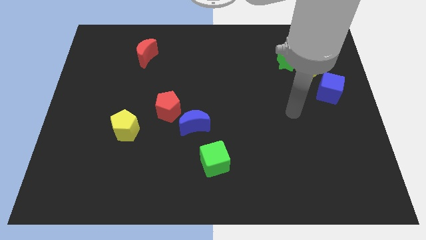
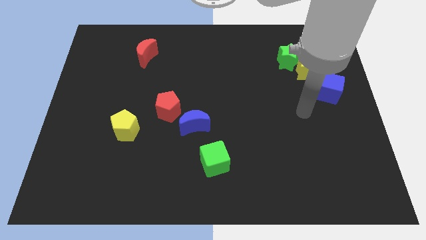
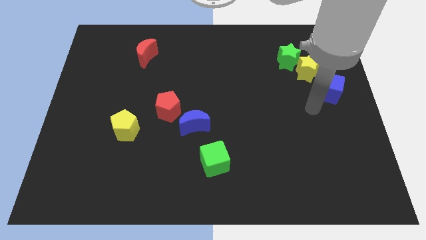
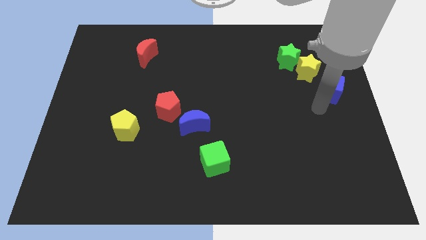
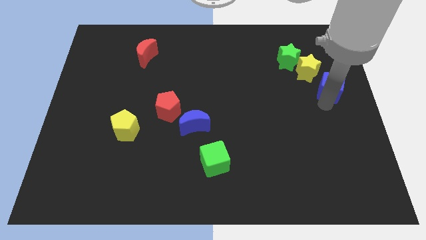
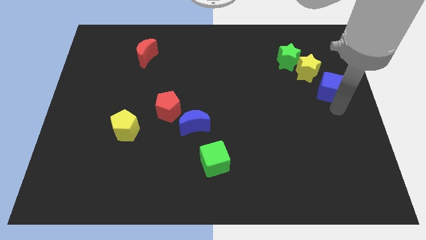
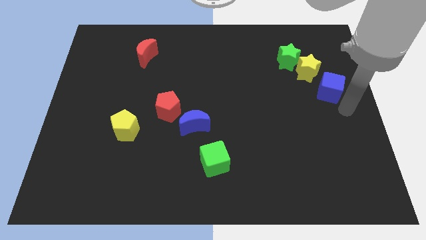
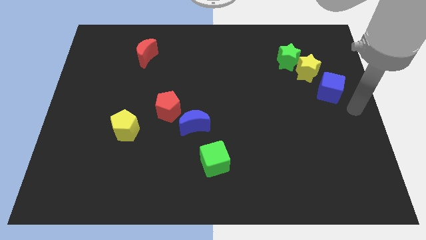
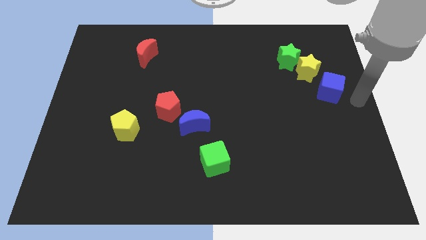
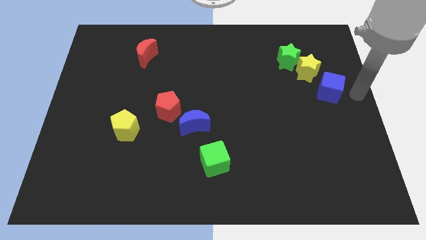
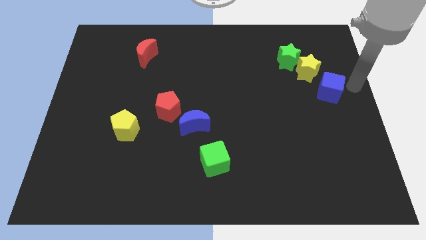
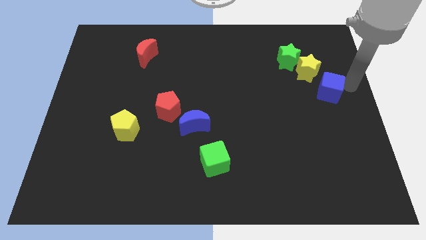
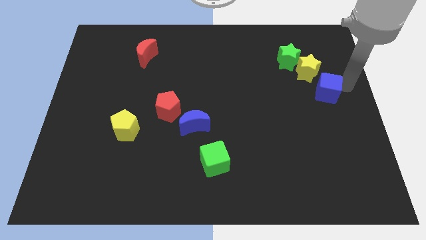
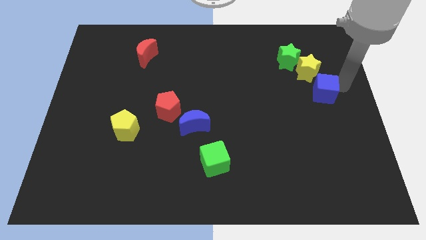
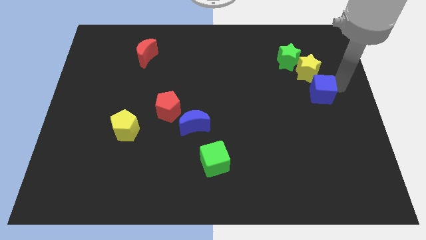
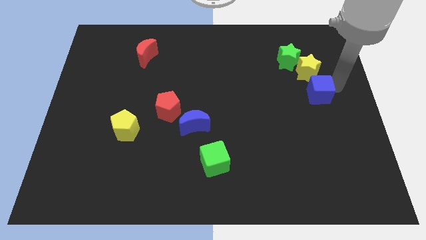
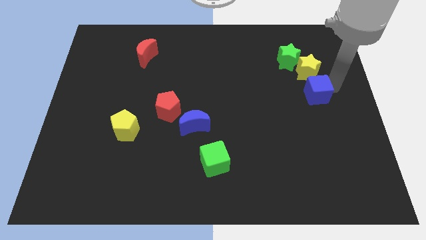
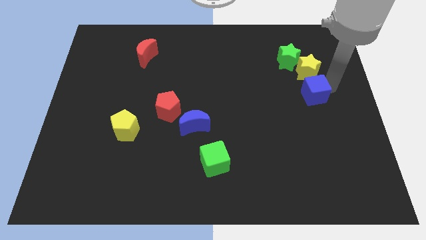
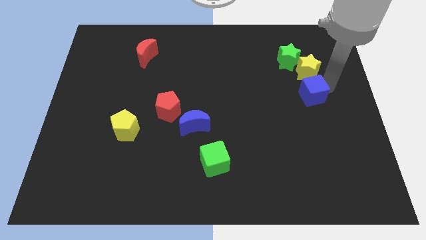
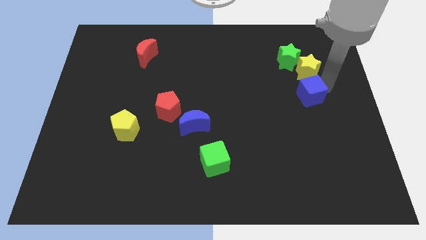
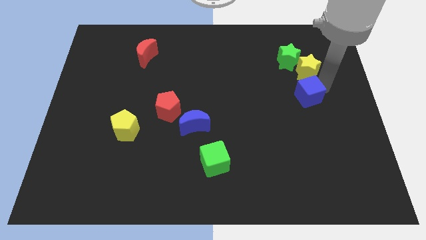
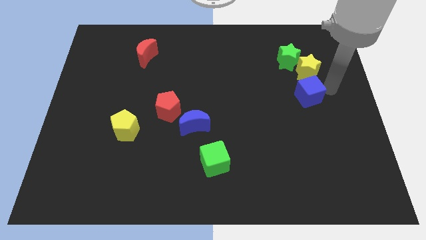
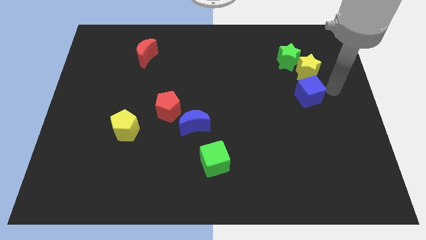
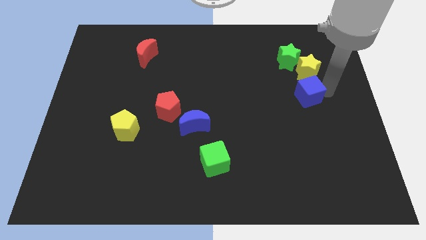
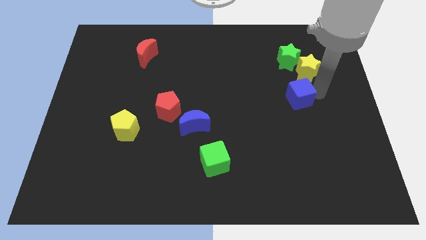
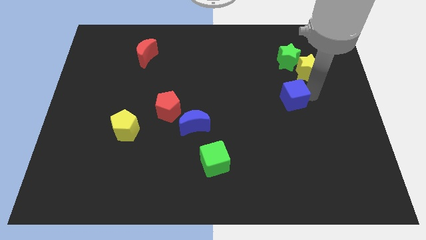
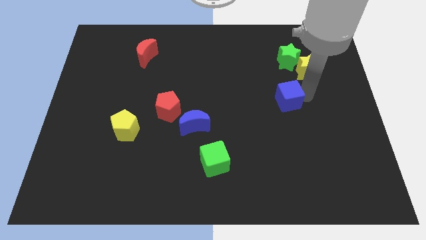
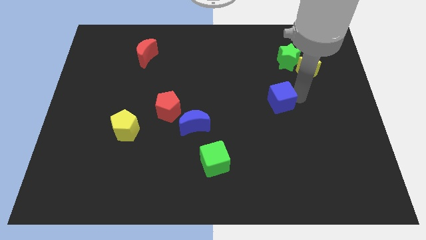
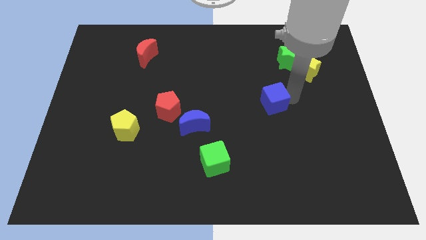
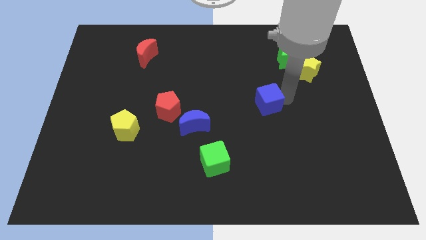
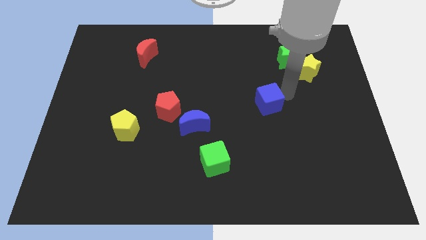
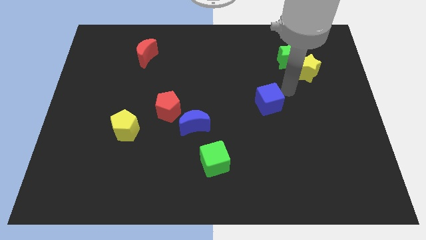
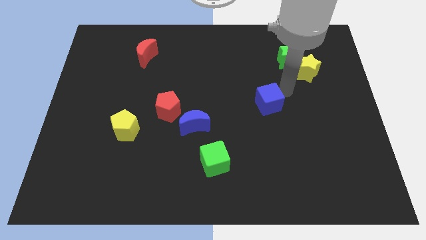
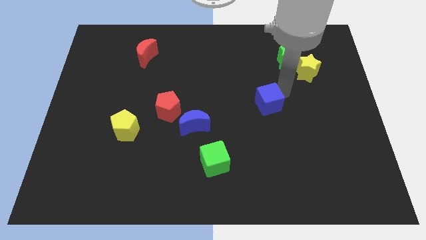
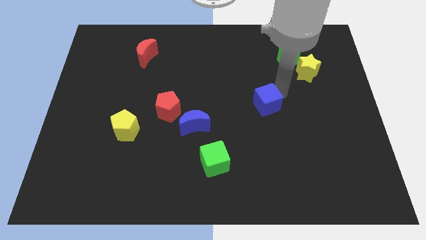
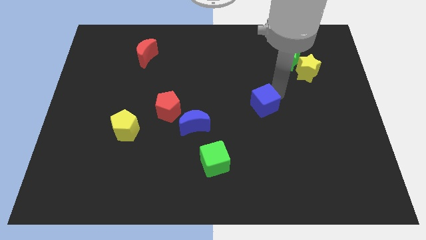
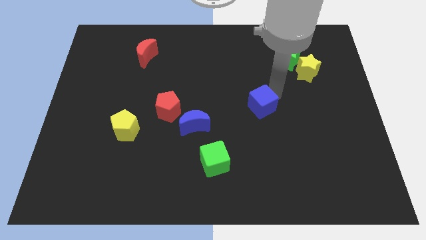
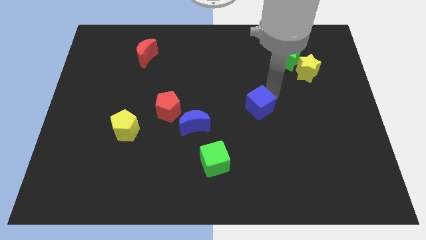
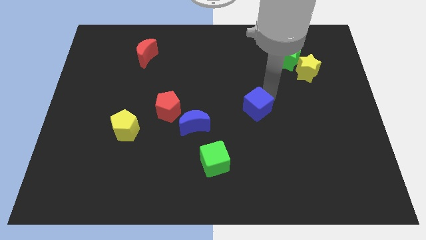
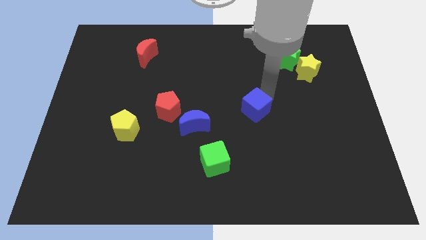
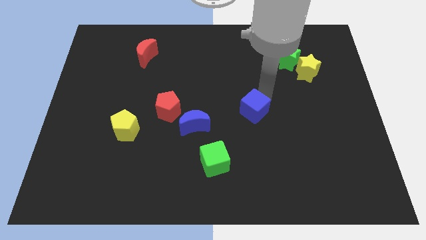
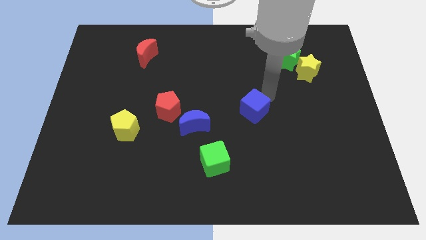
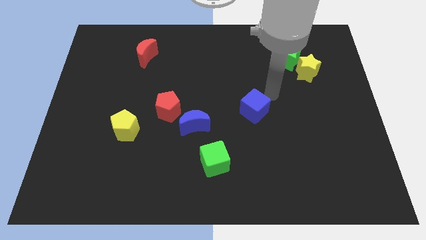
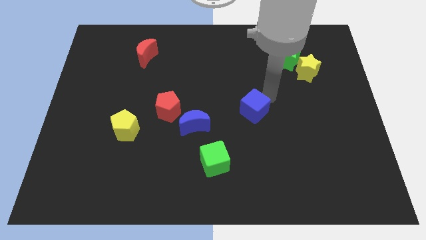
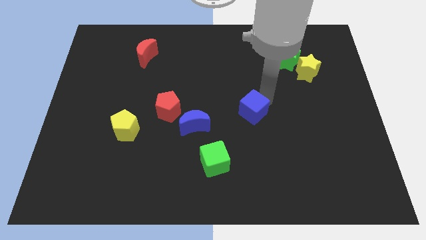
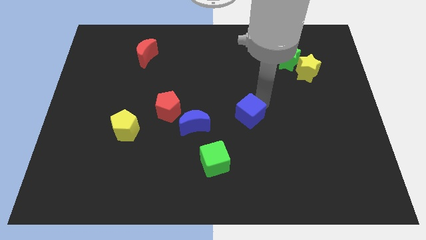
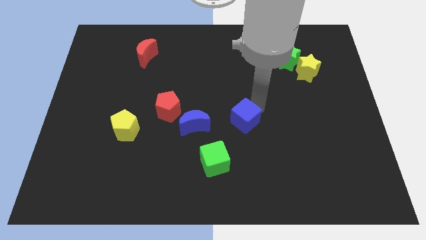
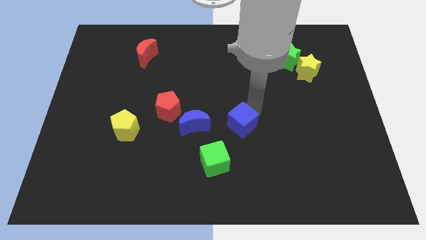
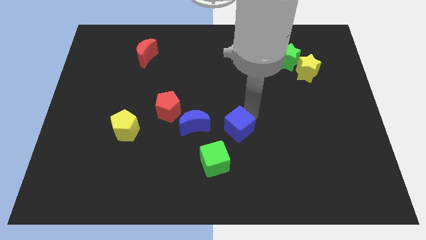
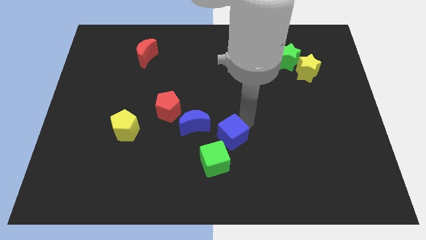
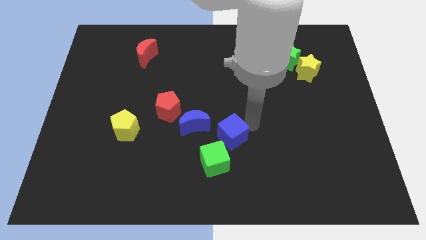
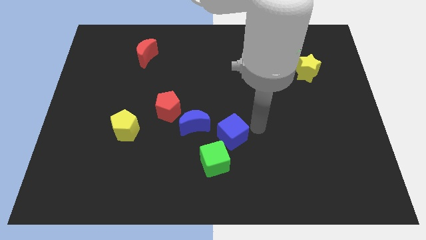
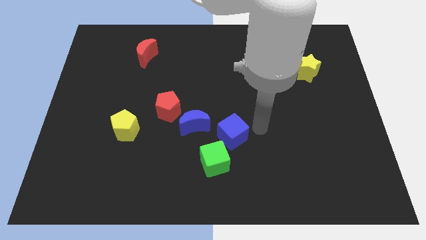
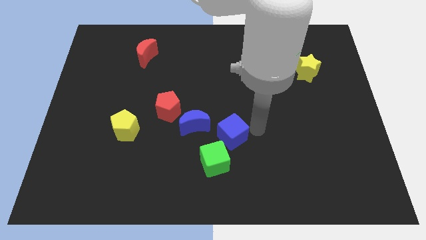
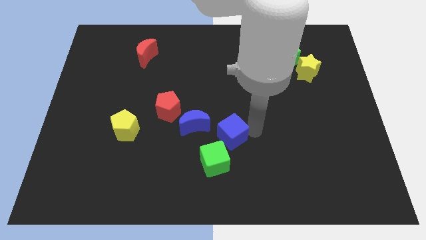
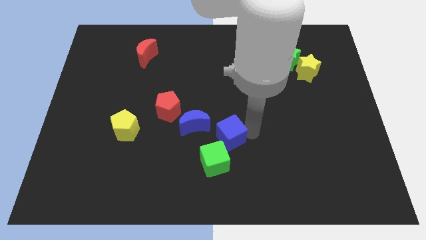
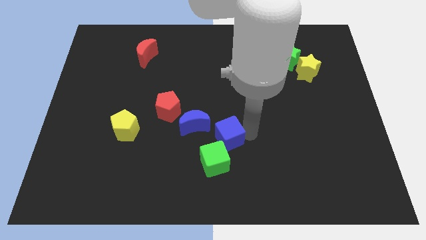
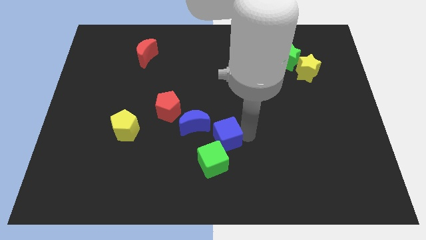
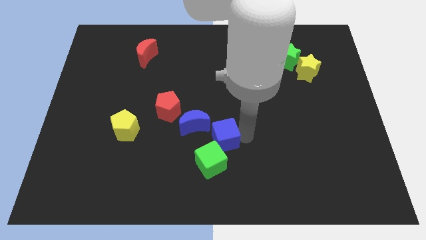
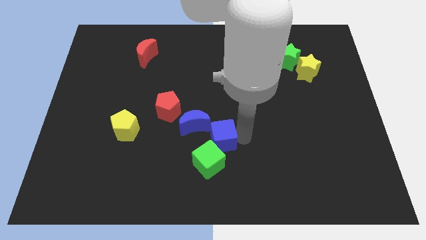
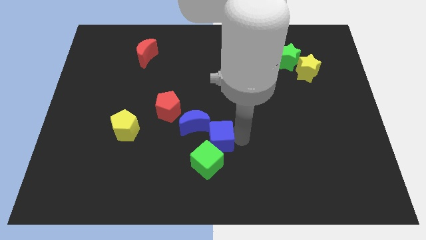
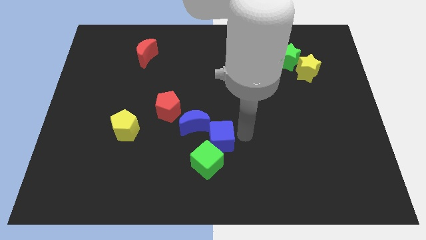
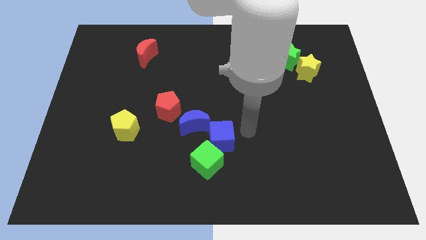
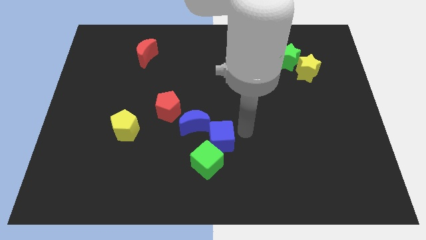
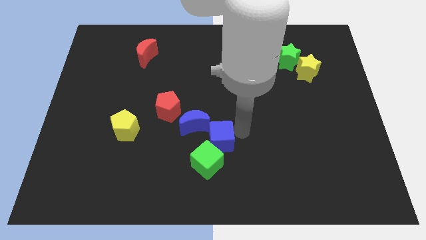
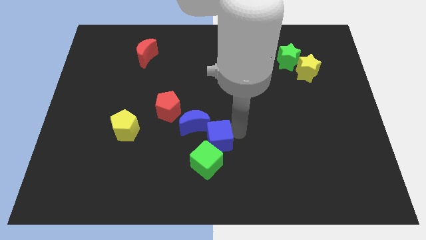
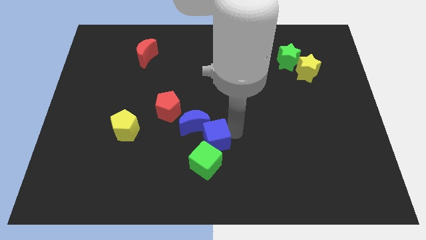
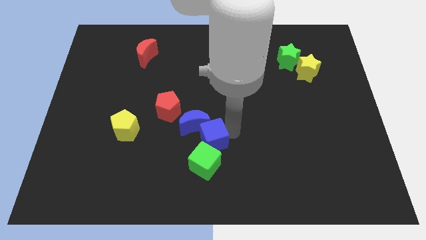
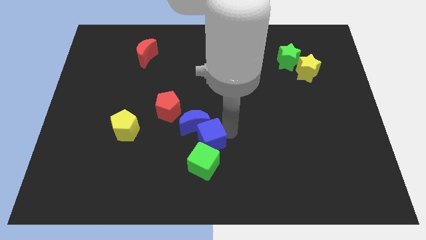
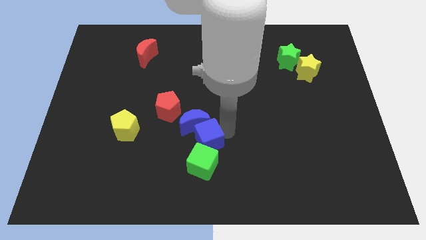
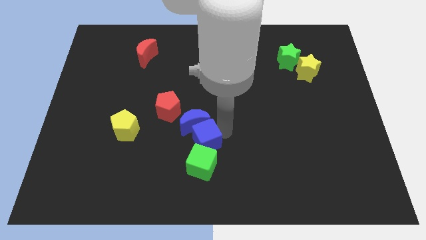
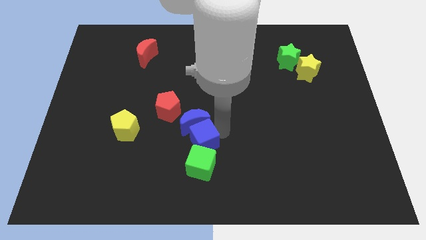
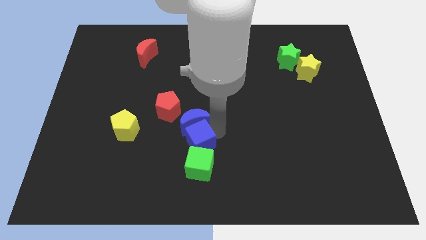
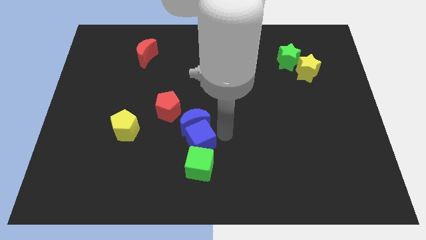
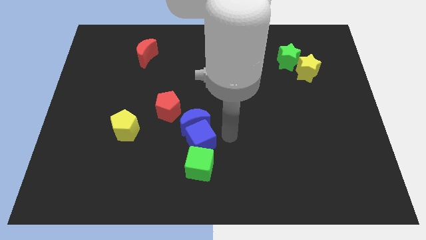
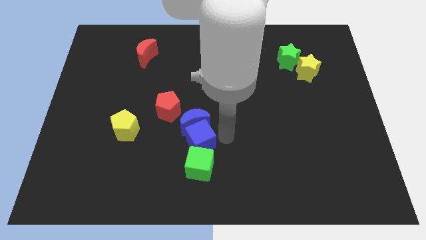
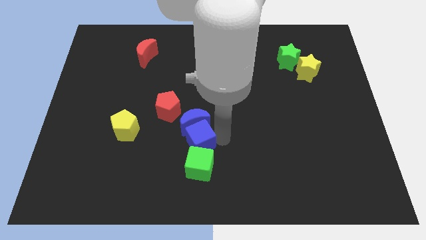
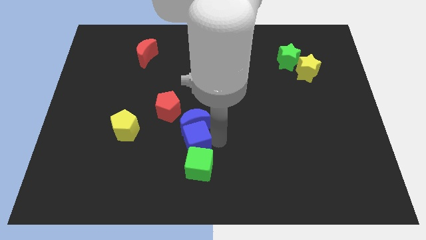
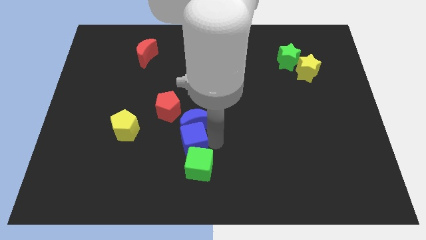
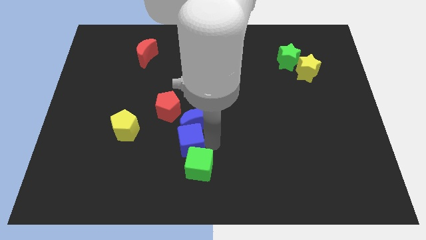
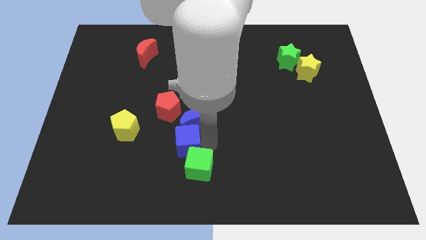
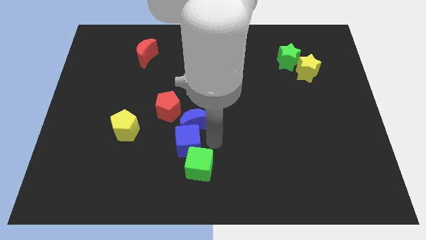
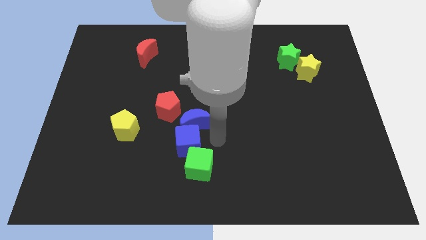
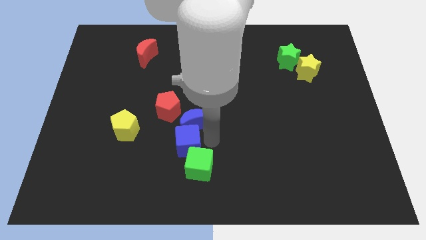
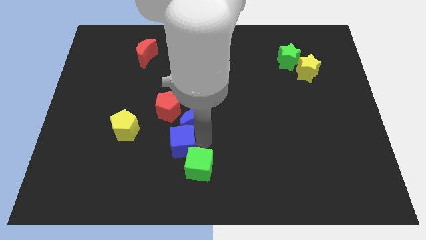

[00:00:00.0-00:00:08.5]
push the blue cube below the red pentagon
